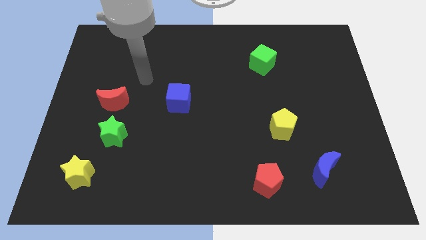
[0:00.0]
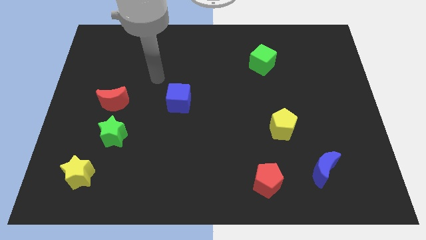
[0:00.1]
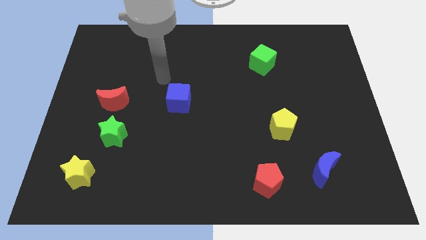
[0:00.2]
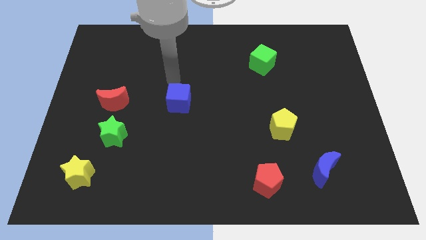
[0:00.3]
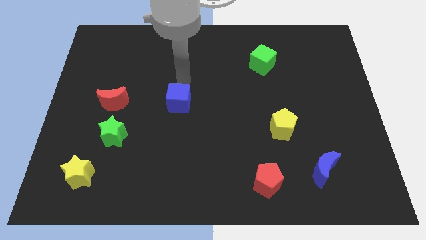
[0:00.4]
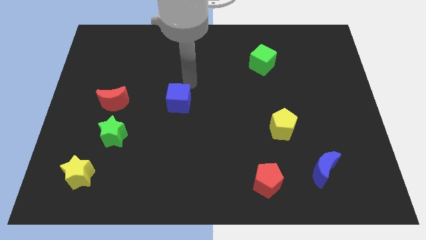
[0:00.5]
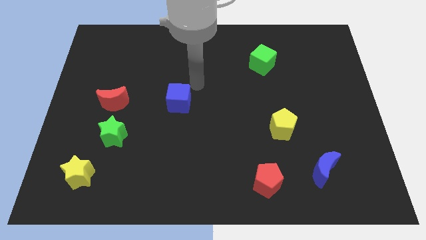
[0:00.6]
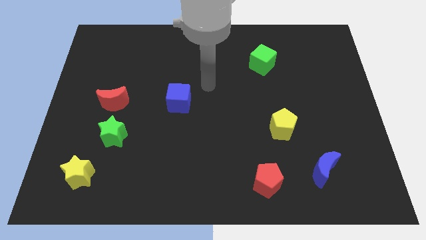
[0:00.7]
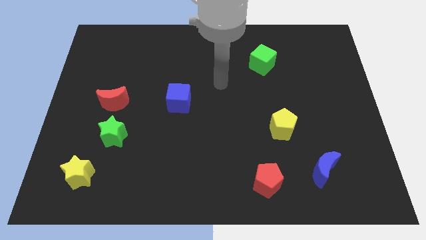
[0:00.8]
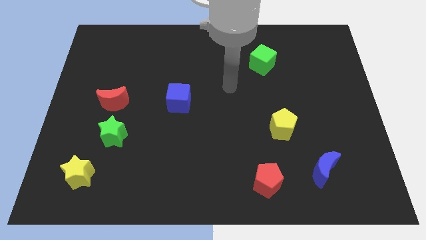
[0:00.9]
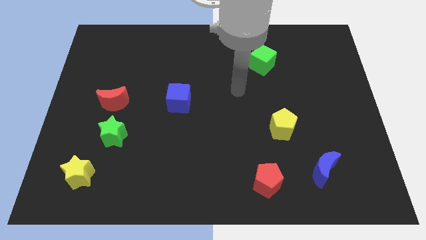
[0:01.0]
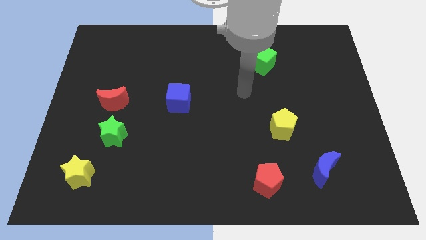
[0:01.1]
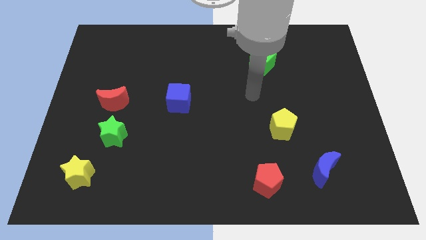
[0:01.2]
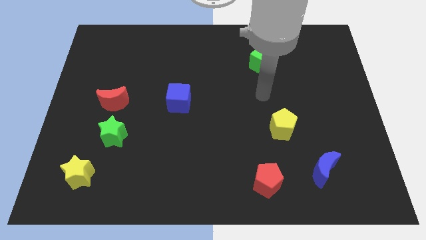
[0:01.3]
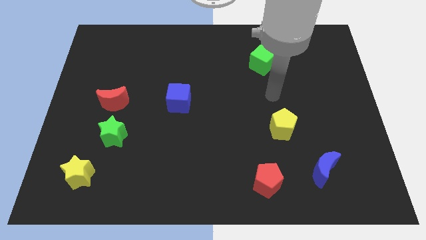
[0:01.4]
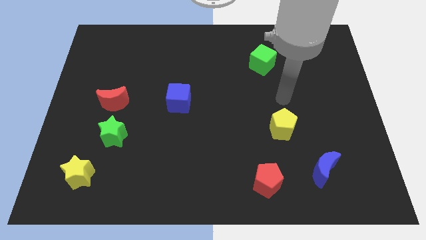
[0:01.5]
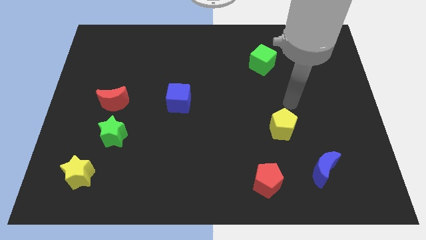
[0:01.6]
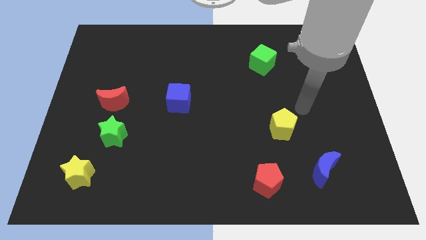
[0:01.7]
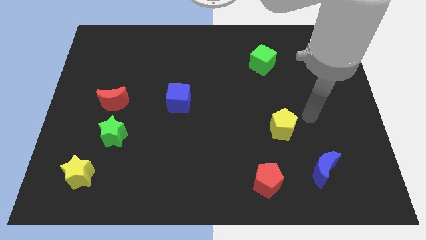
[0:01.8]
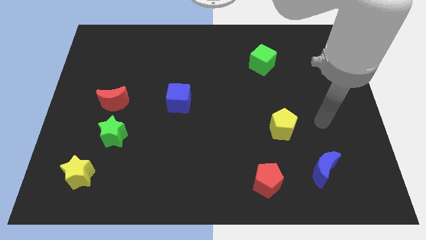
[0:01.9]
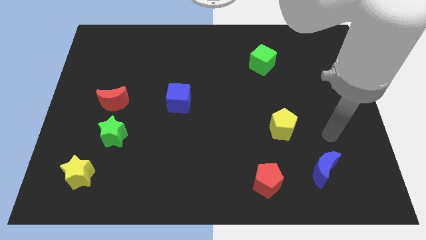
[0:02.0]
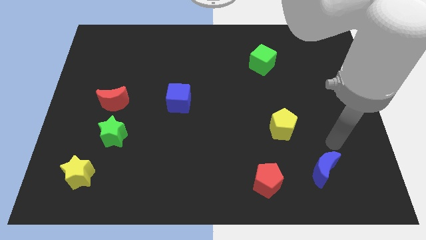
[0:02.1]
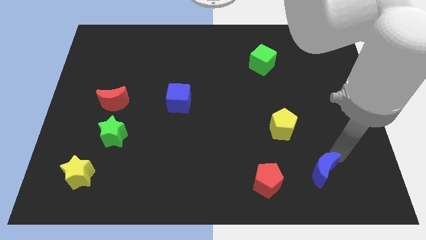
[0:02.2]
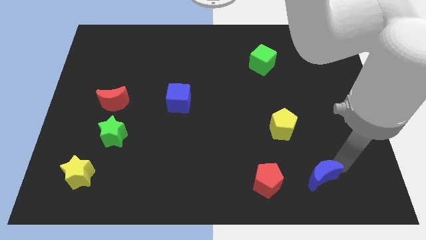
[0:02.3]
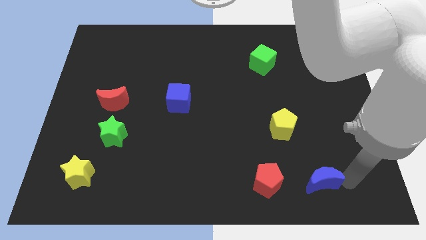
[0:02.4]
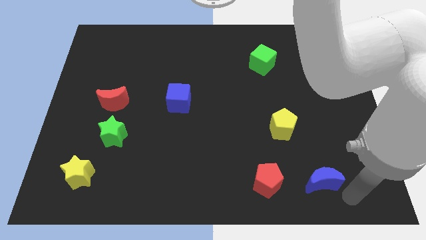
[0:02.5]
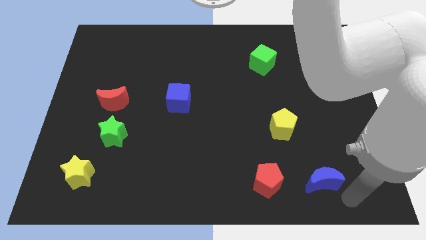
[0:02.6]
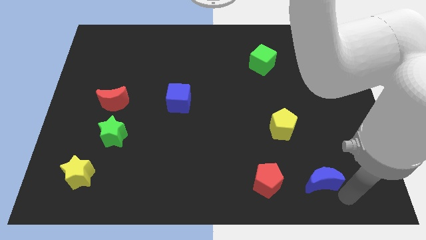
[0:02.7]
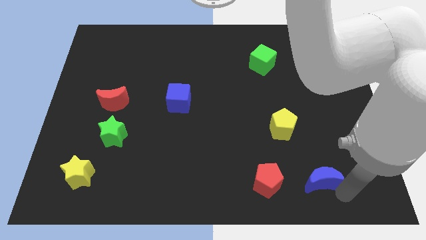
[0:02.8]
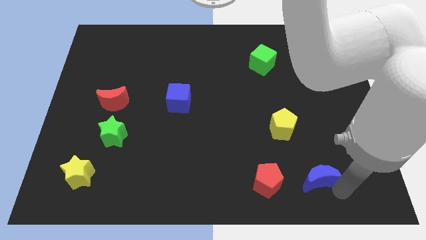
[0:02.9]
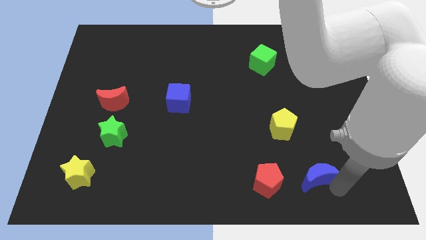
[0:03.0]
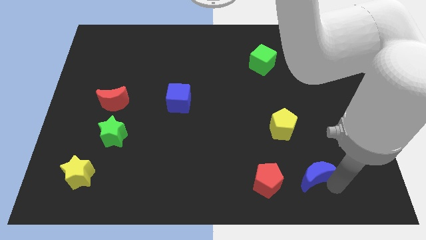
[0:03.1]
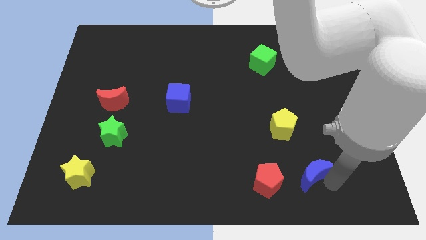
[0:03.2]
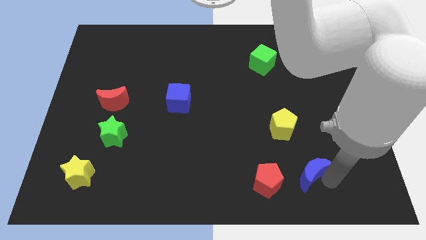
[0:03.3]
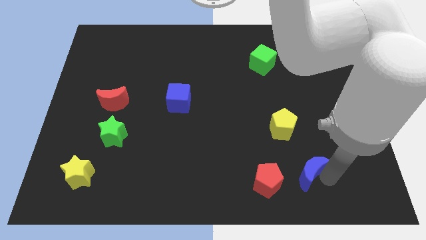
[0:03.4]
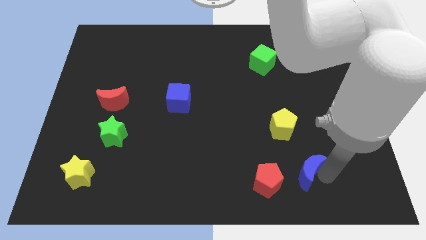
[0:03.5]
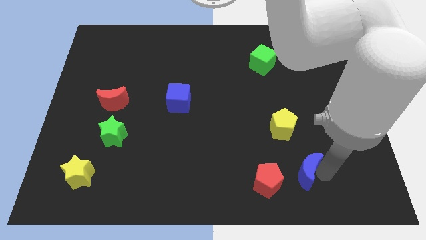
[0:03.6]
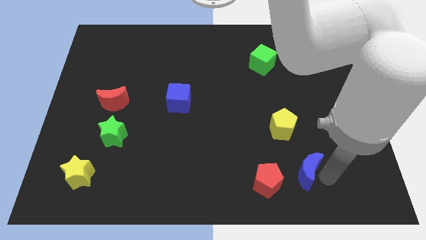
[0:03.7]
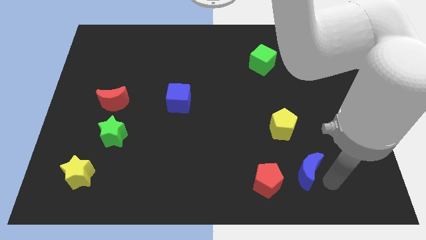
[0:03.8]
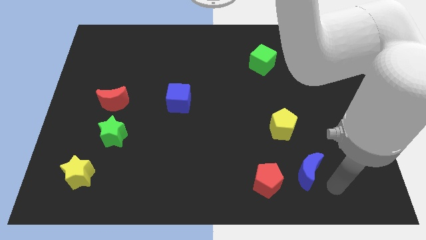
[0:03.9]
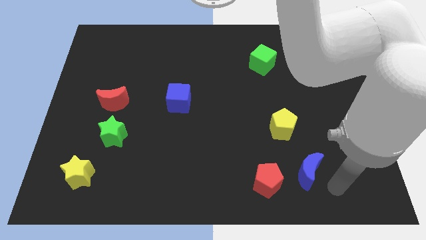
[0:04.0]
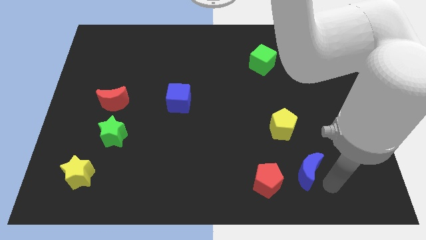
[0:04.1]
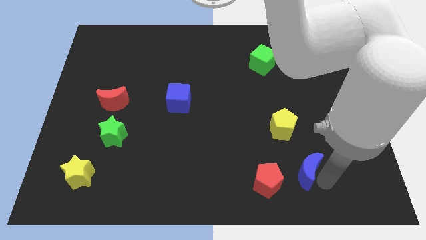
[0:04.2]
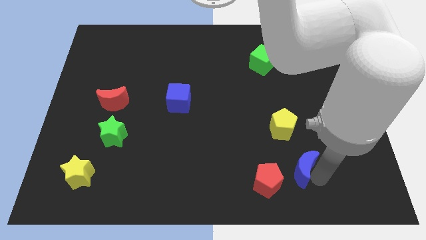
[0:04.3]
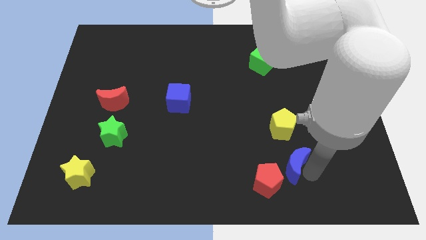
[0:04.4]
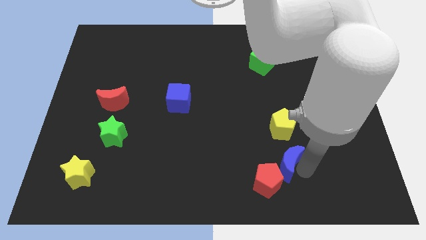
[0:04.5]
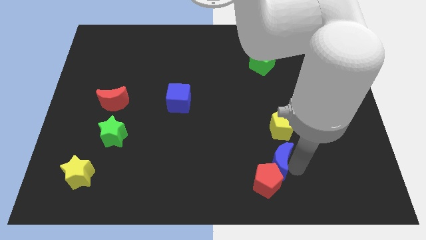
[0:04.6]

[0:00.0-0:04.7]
put the blue moon to the bottom left of the yellow pentagon

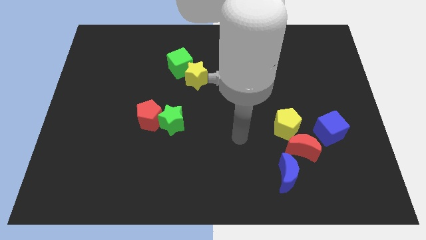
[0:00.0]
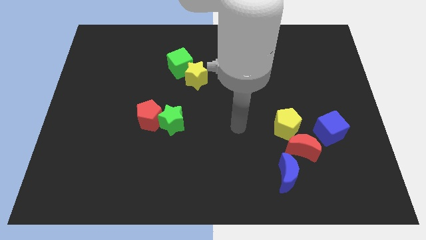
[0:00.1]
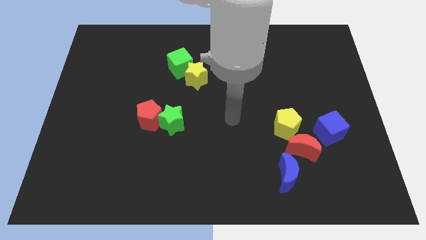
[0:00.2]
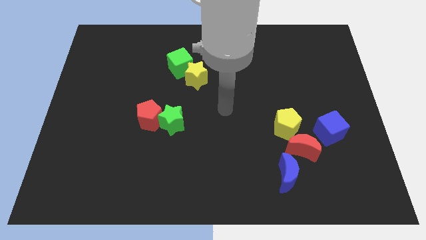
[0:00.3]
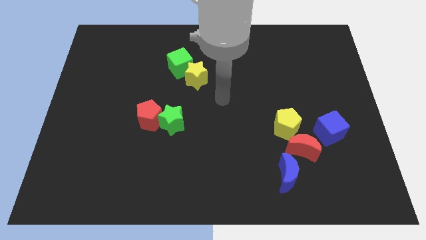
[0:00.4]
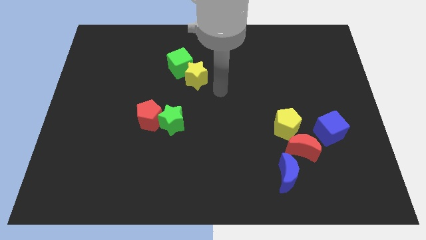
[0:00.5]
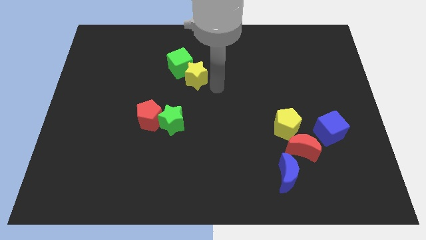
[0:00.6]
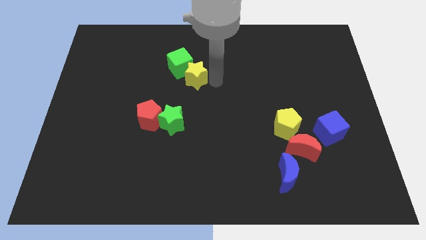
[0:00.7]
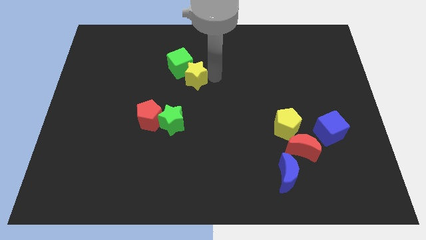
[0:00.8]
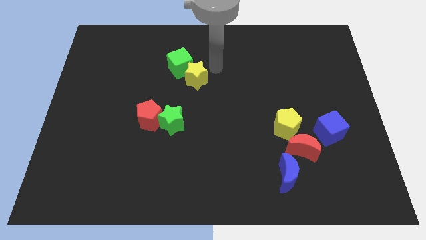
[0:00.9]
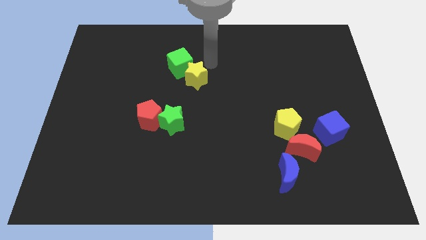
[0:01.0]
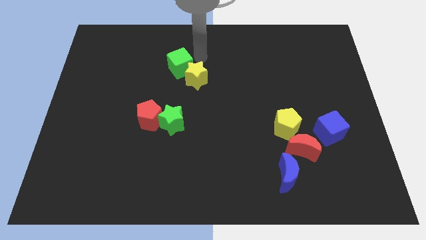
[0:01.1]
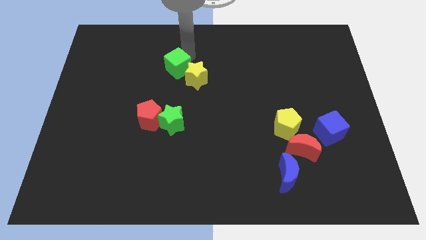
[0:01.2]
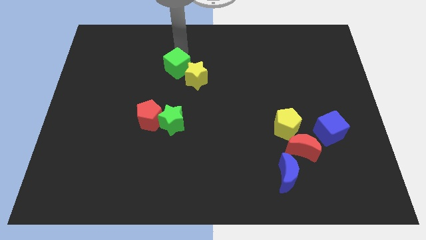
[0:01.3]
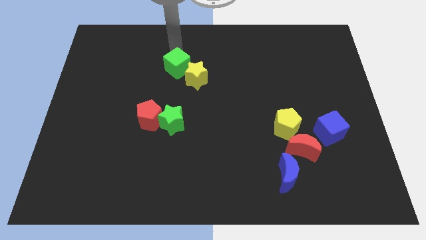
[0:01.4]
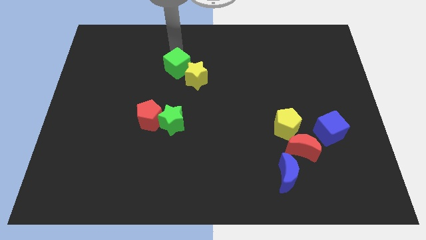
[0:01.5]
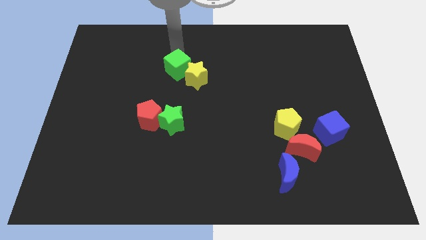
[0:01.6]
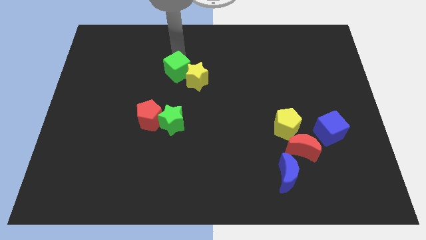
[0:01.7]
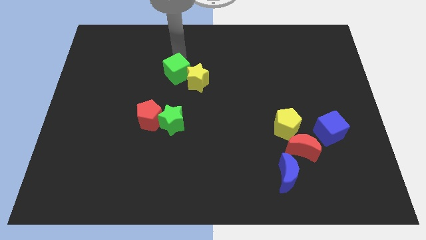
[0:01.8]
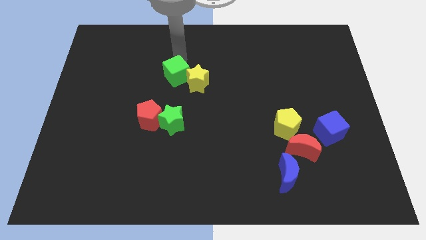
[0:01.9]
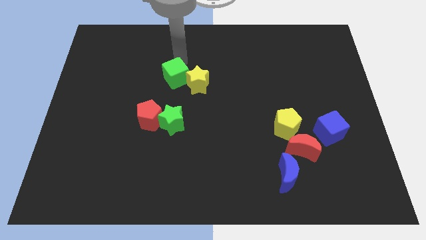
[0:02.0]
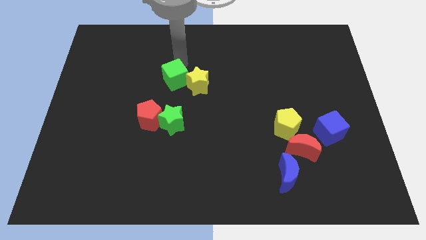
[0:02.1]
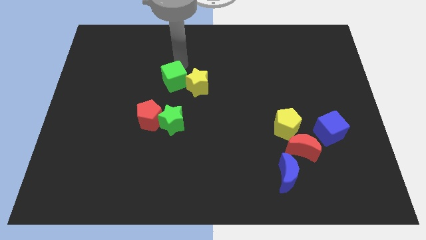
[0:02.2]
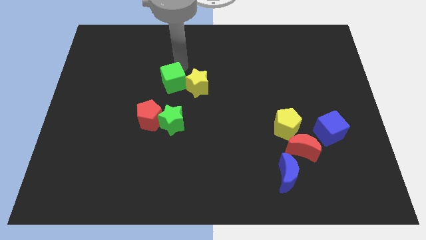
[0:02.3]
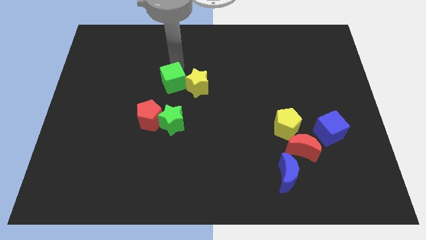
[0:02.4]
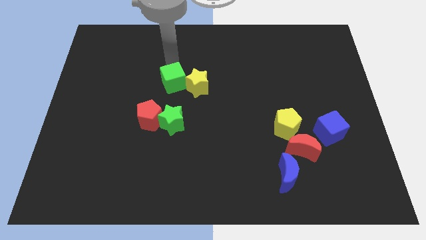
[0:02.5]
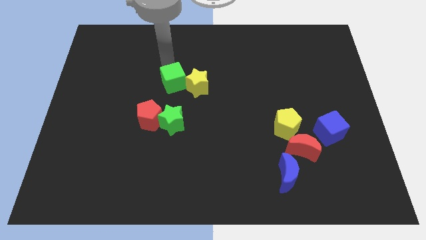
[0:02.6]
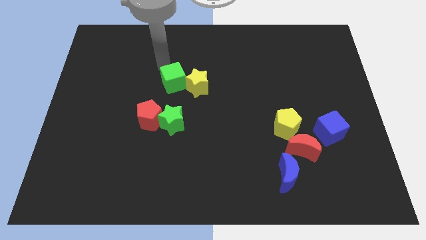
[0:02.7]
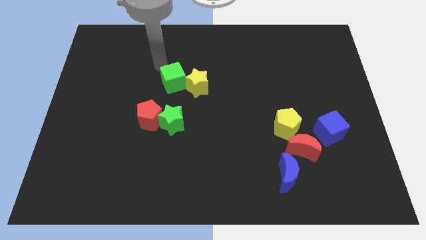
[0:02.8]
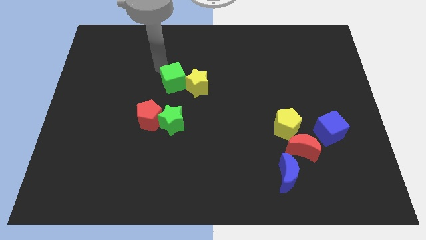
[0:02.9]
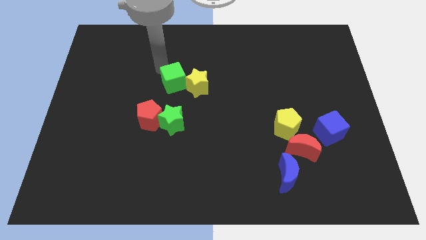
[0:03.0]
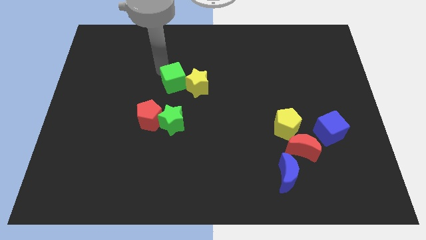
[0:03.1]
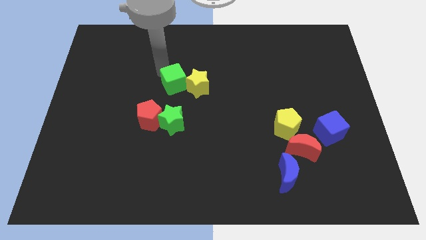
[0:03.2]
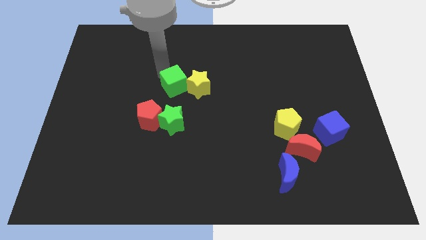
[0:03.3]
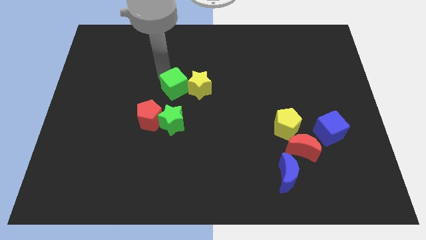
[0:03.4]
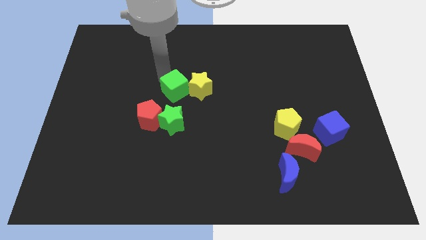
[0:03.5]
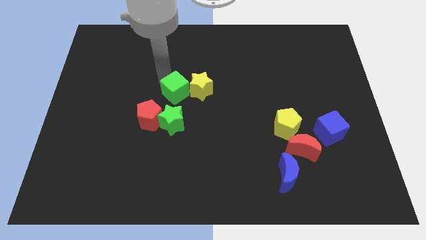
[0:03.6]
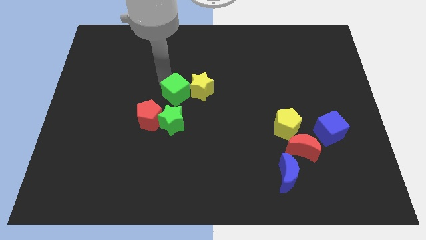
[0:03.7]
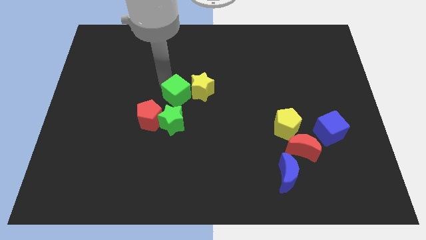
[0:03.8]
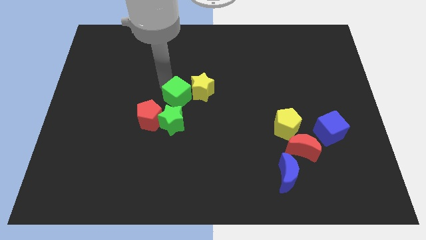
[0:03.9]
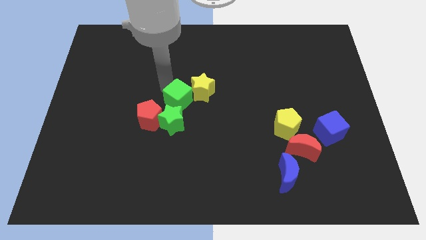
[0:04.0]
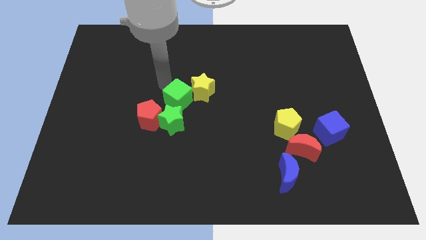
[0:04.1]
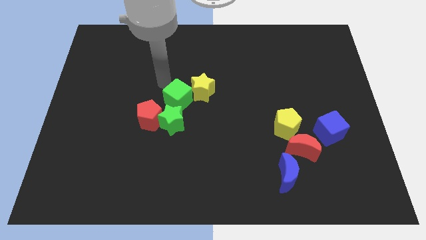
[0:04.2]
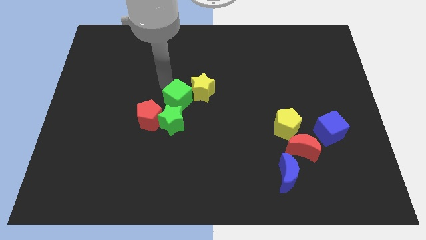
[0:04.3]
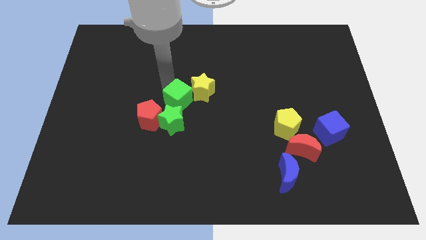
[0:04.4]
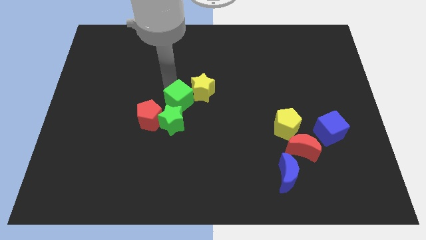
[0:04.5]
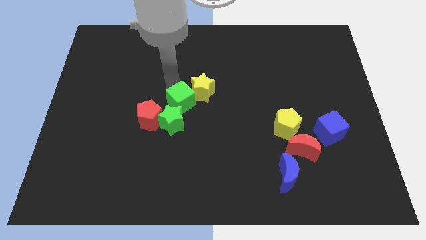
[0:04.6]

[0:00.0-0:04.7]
put the green cube to the right of the red pentagon
